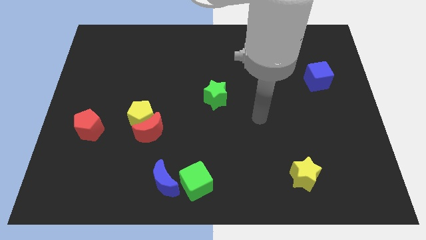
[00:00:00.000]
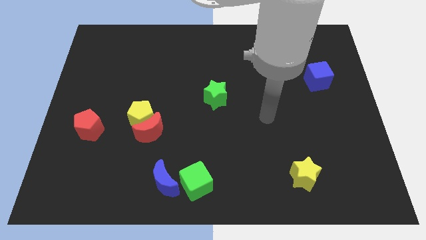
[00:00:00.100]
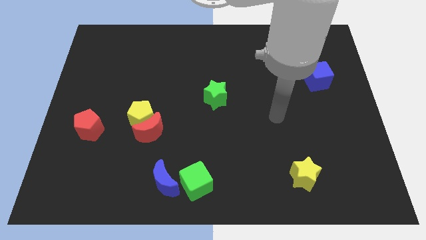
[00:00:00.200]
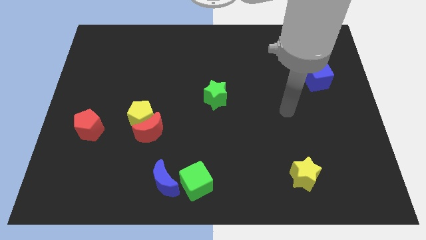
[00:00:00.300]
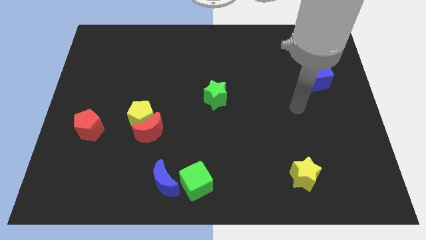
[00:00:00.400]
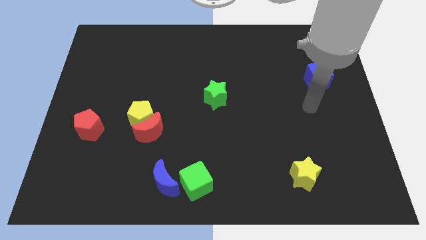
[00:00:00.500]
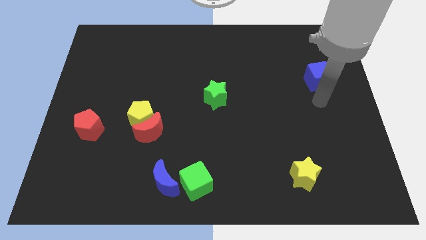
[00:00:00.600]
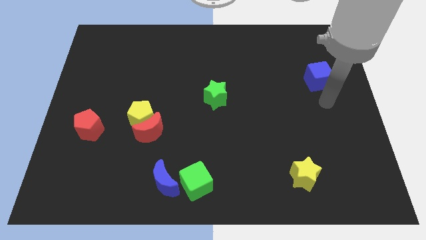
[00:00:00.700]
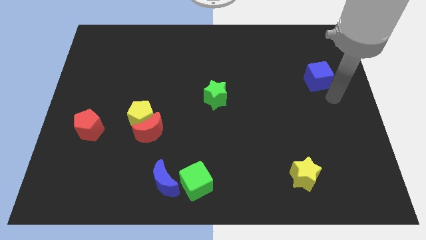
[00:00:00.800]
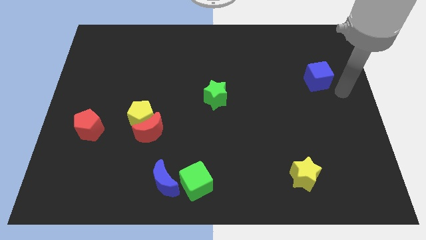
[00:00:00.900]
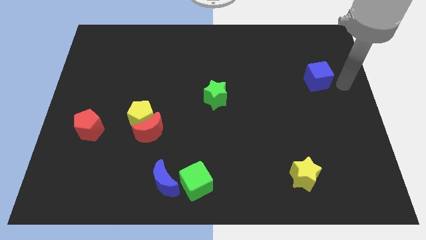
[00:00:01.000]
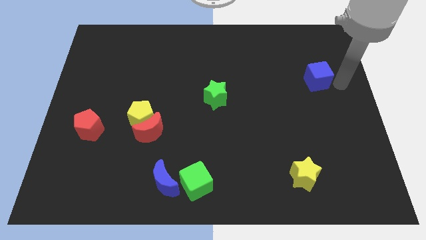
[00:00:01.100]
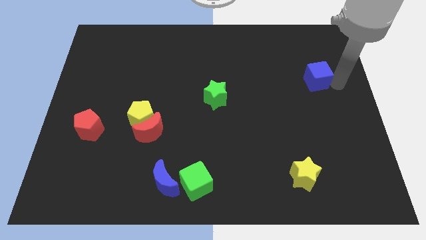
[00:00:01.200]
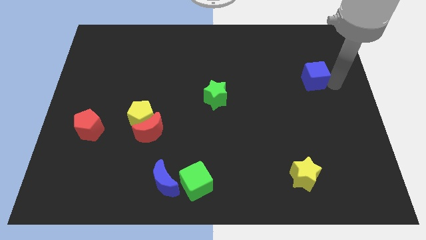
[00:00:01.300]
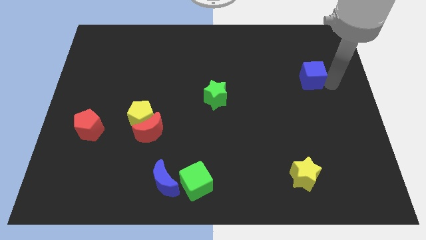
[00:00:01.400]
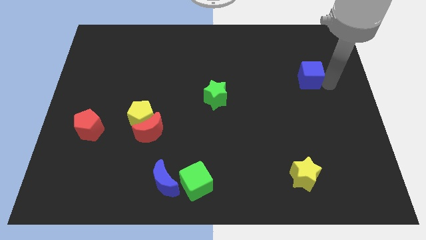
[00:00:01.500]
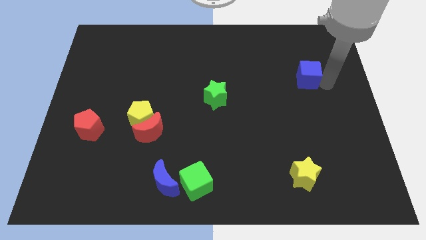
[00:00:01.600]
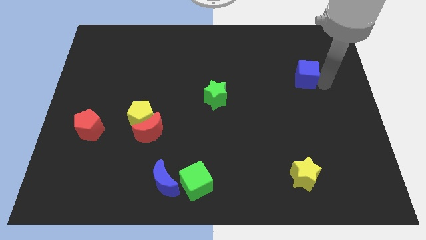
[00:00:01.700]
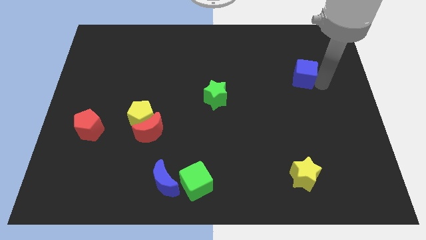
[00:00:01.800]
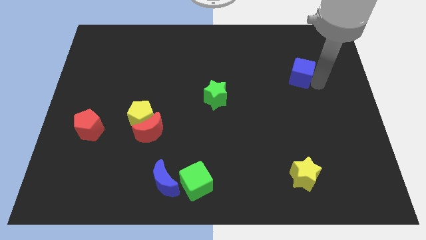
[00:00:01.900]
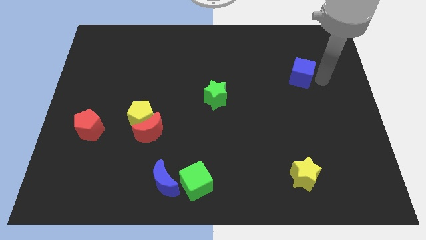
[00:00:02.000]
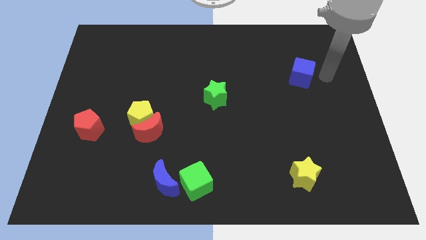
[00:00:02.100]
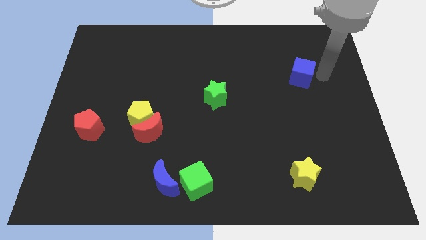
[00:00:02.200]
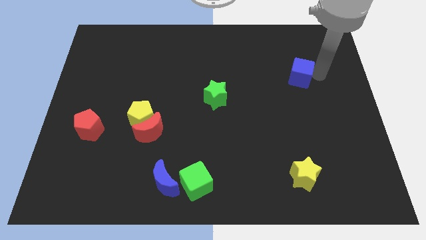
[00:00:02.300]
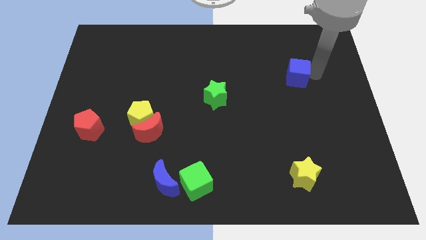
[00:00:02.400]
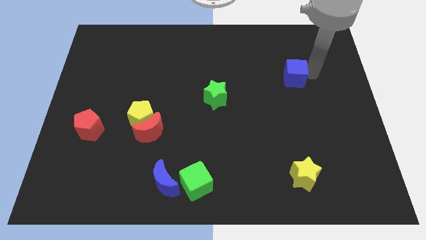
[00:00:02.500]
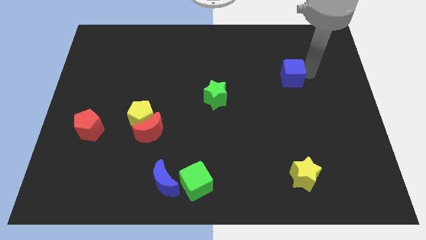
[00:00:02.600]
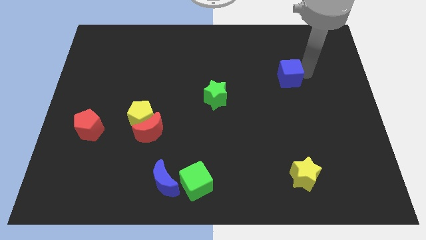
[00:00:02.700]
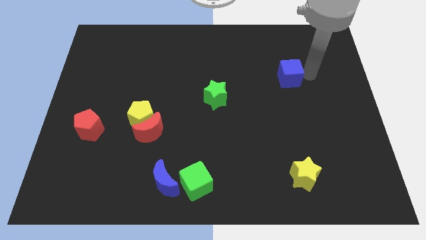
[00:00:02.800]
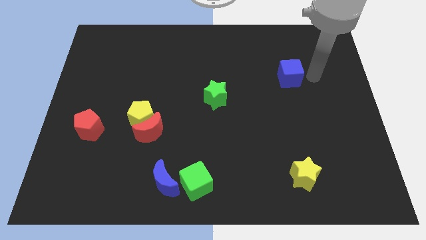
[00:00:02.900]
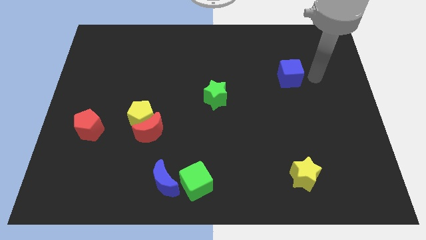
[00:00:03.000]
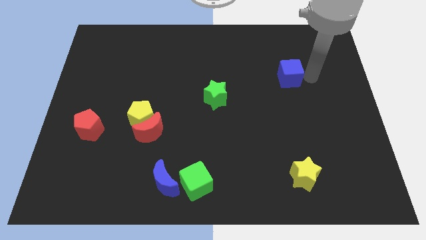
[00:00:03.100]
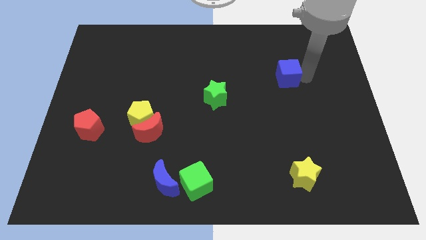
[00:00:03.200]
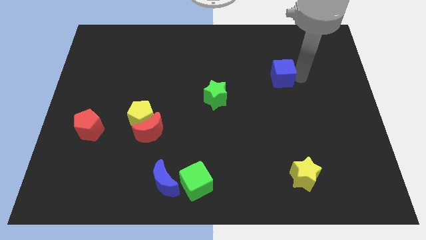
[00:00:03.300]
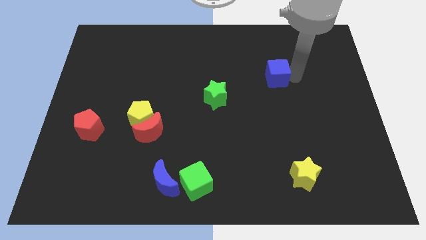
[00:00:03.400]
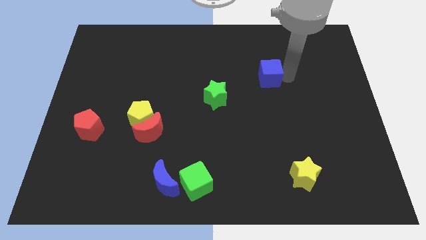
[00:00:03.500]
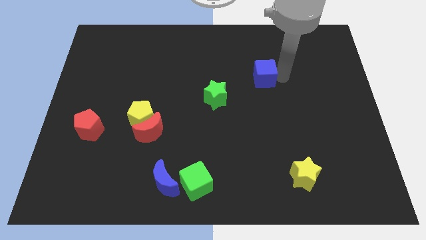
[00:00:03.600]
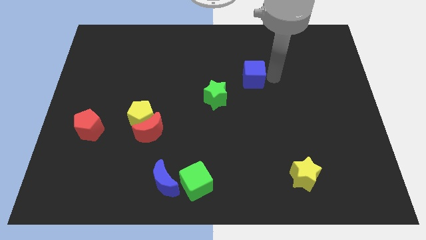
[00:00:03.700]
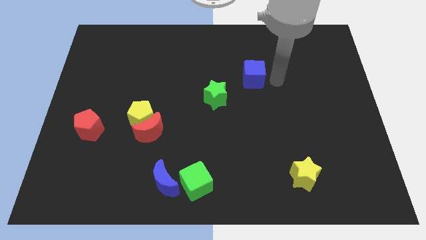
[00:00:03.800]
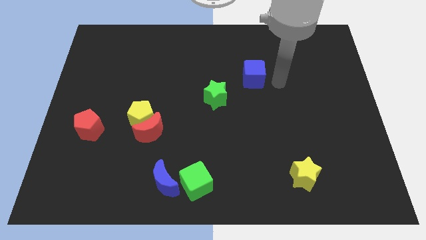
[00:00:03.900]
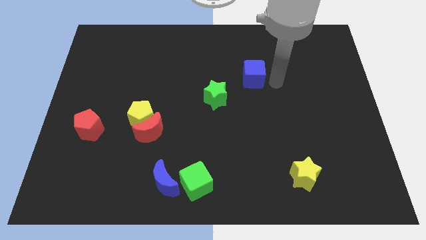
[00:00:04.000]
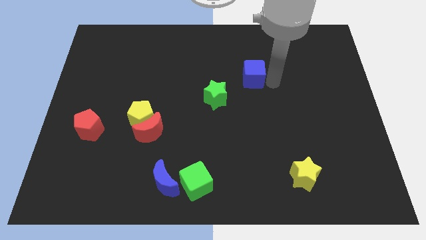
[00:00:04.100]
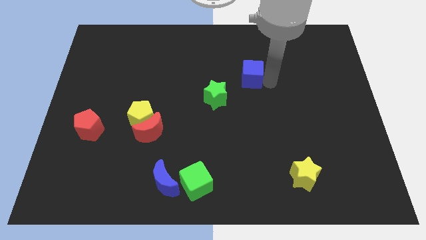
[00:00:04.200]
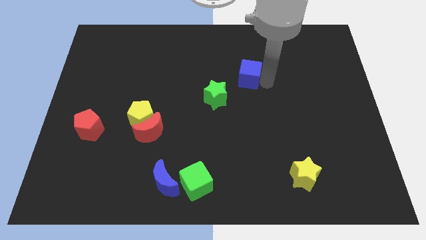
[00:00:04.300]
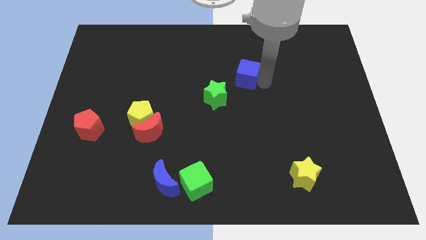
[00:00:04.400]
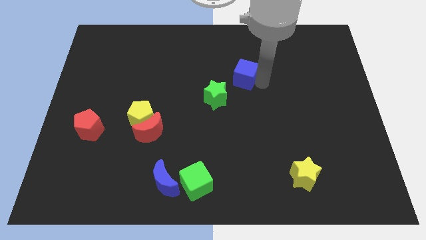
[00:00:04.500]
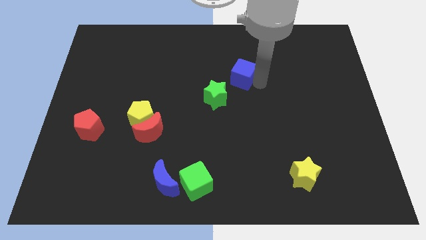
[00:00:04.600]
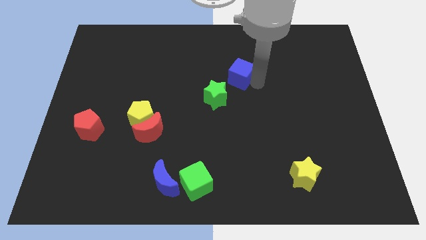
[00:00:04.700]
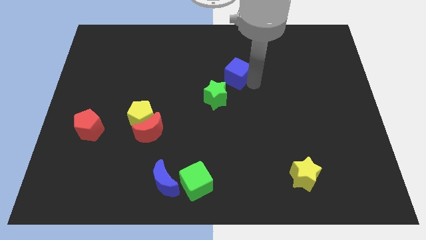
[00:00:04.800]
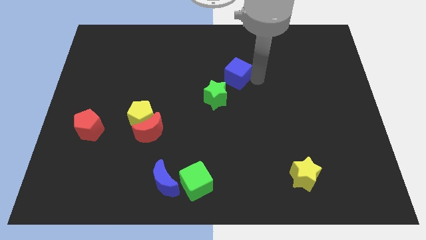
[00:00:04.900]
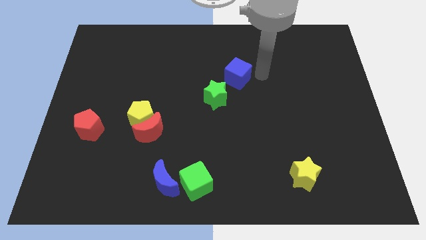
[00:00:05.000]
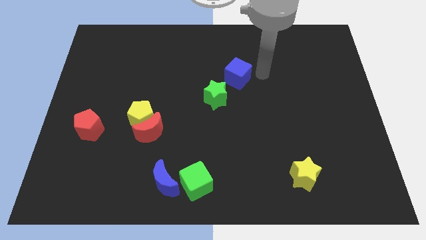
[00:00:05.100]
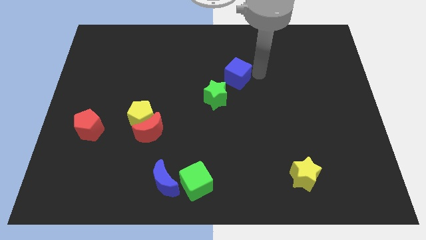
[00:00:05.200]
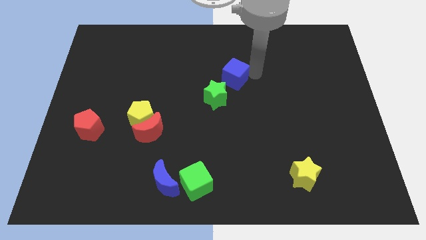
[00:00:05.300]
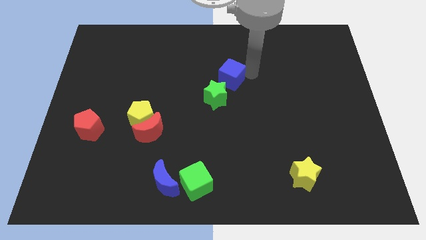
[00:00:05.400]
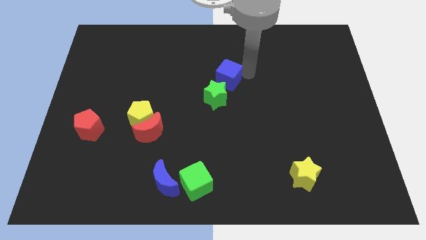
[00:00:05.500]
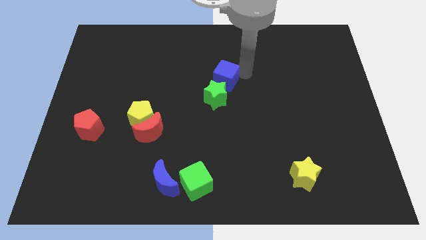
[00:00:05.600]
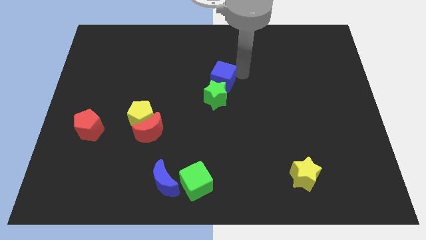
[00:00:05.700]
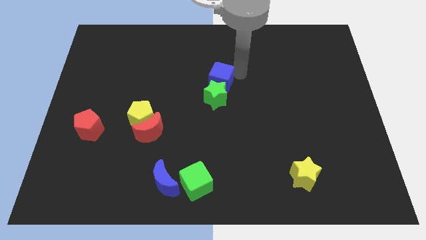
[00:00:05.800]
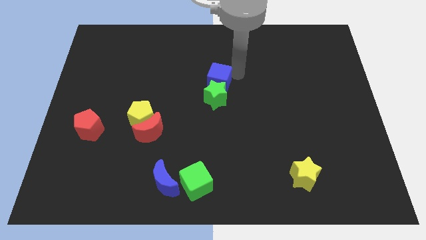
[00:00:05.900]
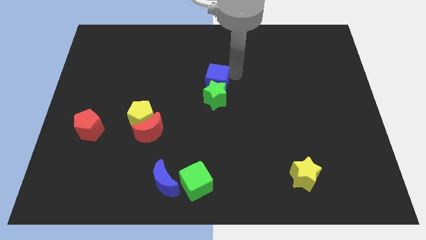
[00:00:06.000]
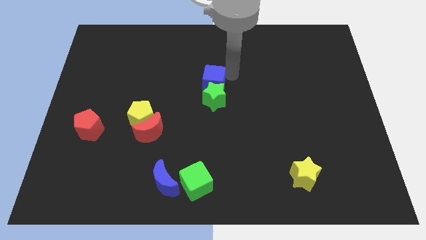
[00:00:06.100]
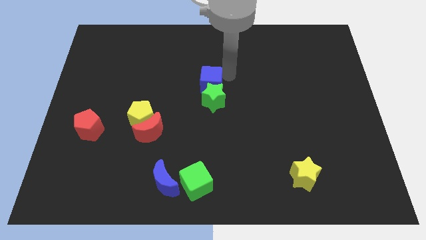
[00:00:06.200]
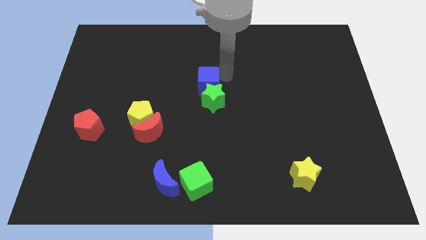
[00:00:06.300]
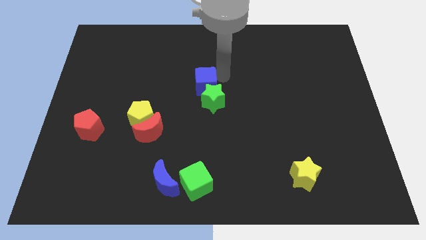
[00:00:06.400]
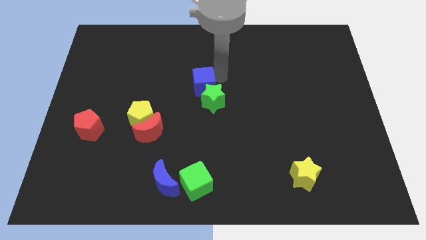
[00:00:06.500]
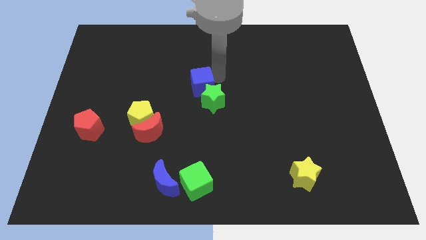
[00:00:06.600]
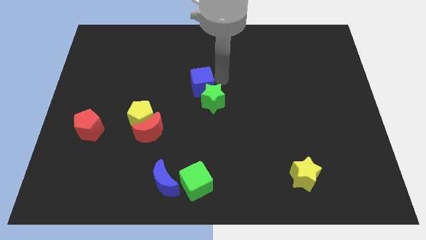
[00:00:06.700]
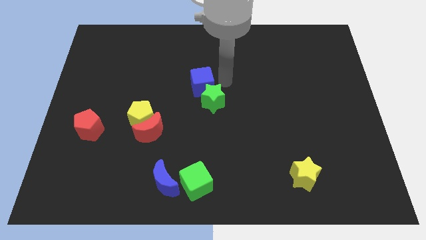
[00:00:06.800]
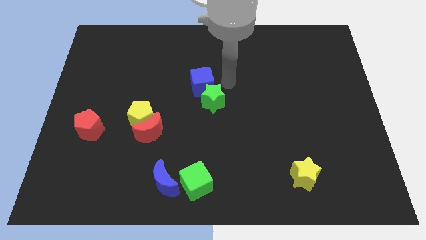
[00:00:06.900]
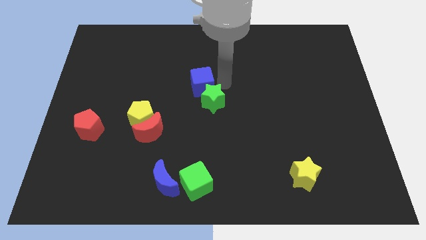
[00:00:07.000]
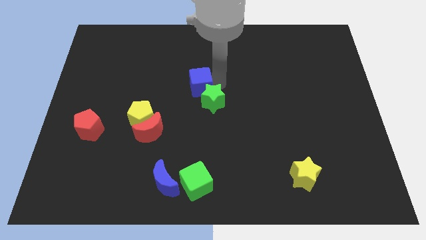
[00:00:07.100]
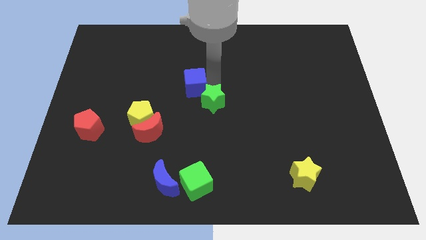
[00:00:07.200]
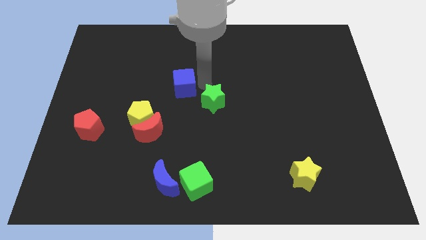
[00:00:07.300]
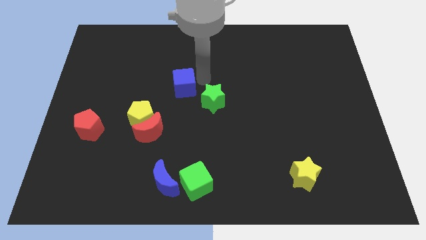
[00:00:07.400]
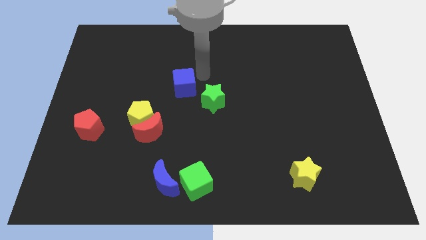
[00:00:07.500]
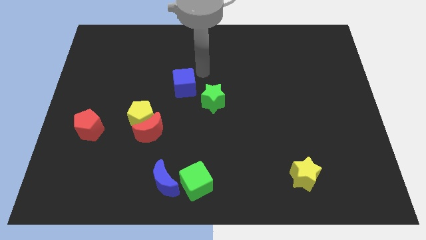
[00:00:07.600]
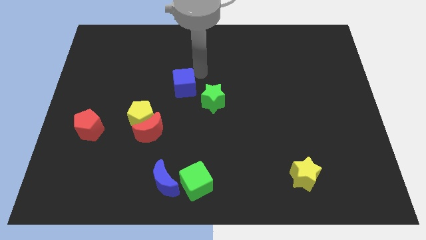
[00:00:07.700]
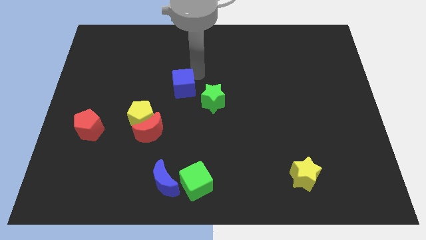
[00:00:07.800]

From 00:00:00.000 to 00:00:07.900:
push the blue cube to the top right side of the yellow pentagon
